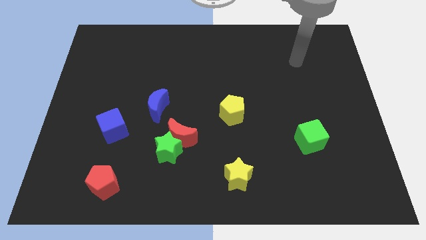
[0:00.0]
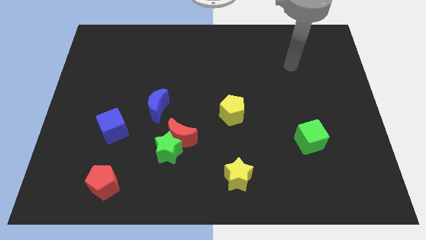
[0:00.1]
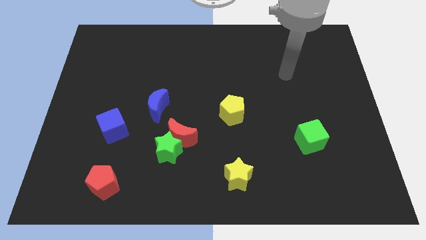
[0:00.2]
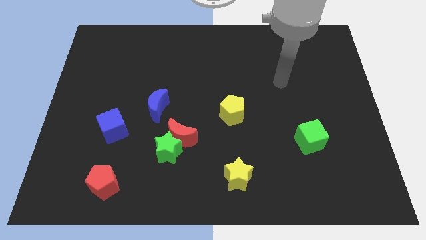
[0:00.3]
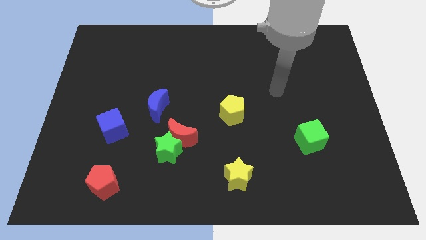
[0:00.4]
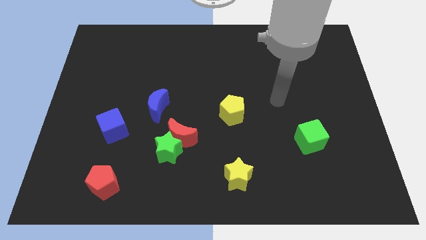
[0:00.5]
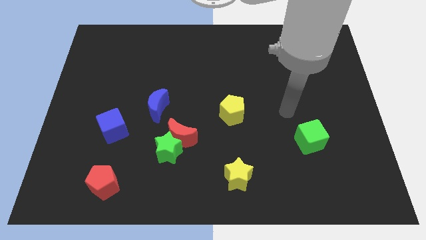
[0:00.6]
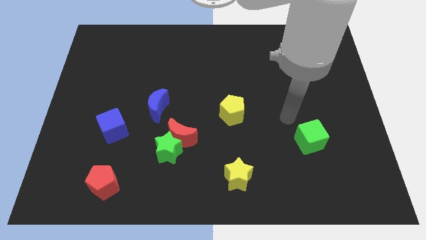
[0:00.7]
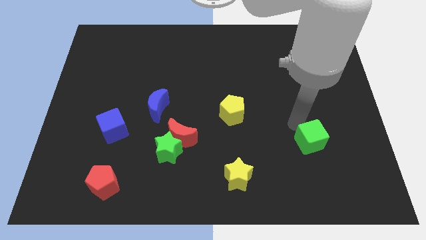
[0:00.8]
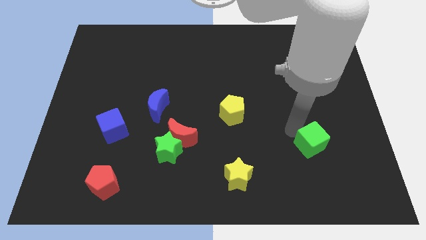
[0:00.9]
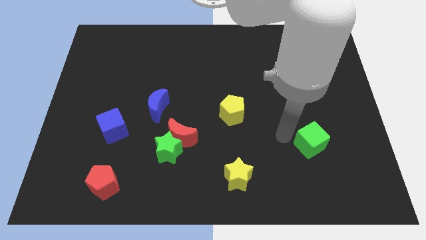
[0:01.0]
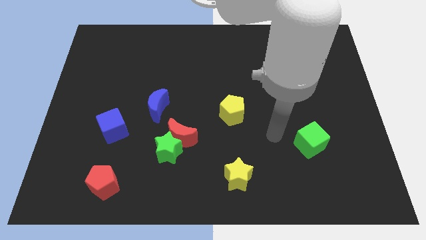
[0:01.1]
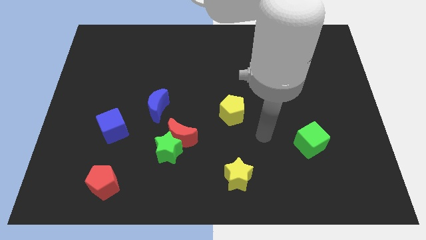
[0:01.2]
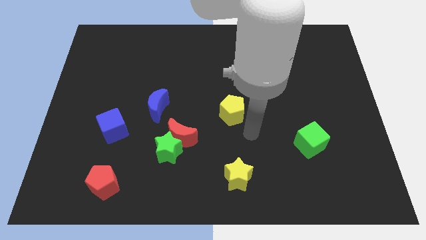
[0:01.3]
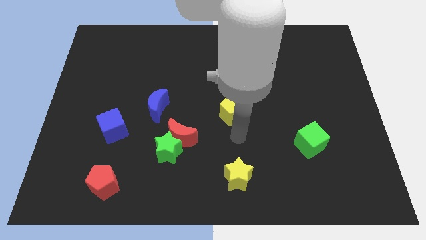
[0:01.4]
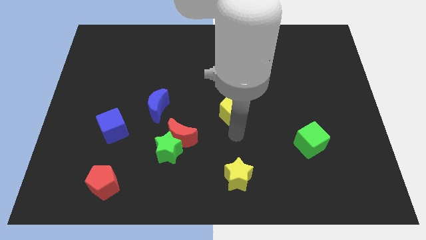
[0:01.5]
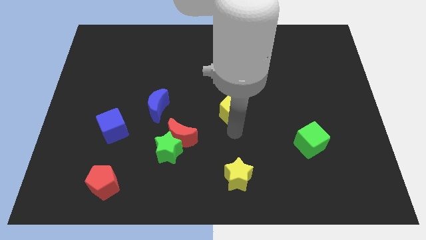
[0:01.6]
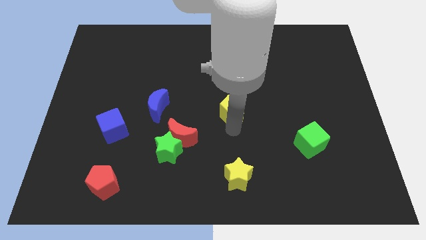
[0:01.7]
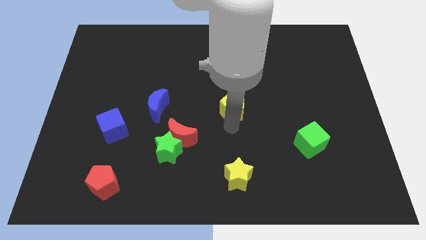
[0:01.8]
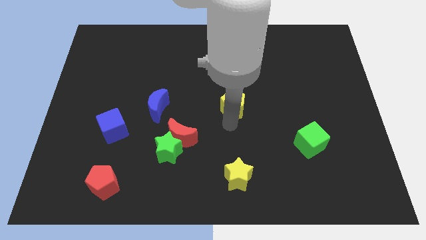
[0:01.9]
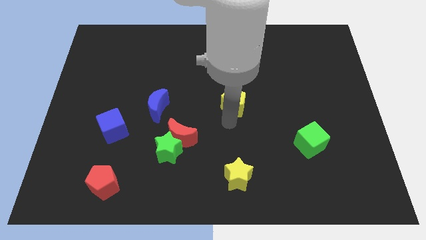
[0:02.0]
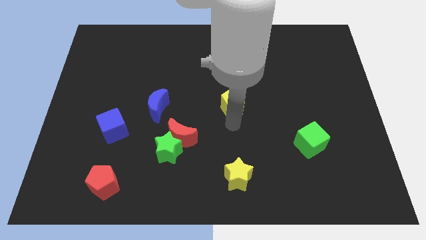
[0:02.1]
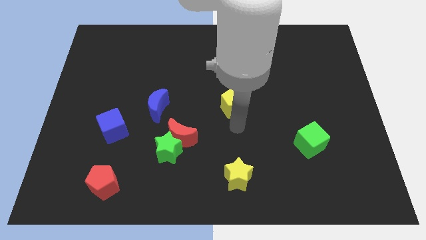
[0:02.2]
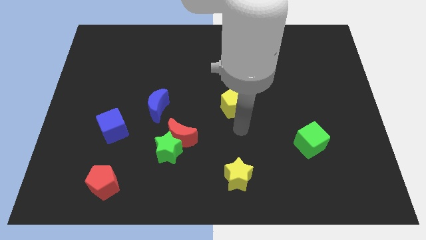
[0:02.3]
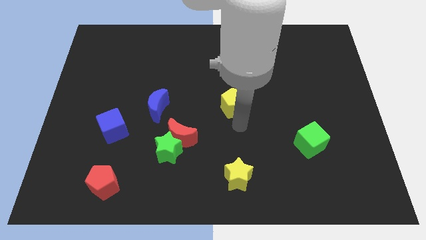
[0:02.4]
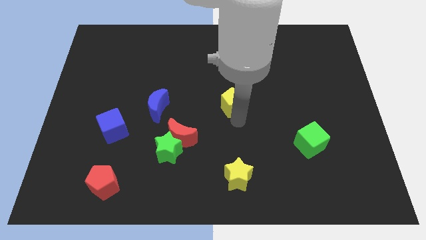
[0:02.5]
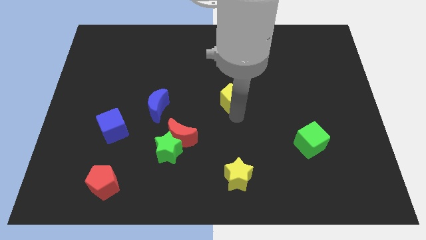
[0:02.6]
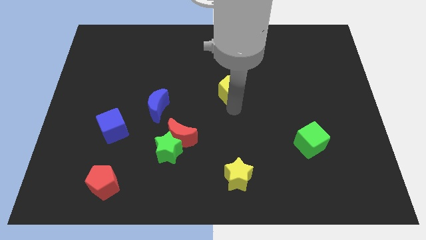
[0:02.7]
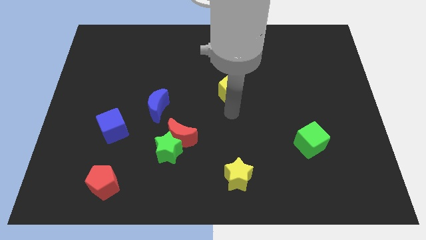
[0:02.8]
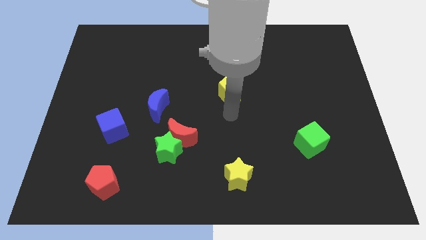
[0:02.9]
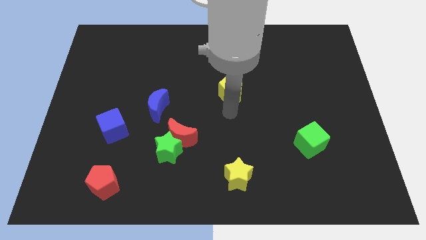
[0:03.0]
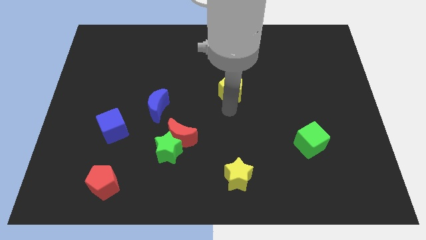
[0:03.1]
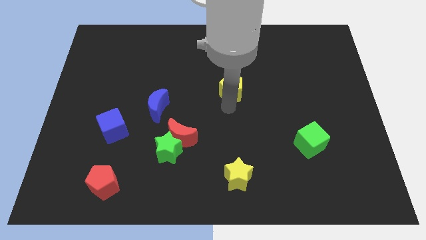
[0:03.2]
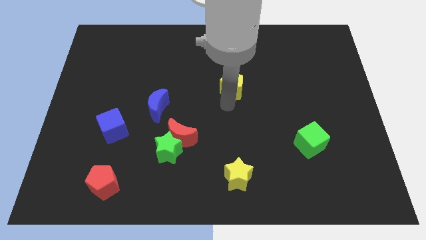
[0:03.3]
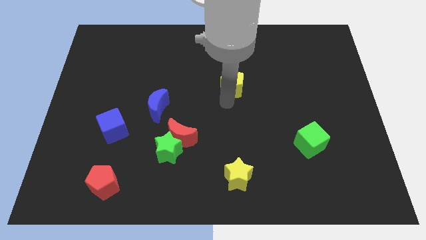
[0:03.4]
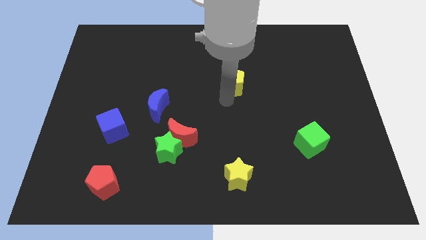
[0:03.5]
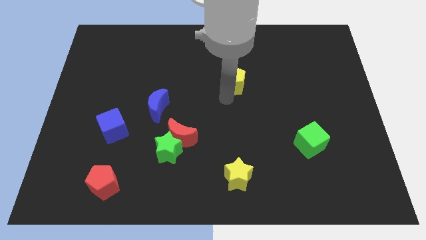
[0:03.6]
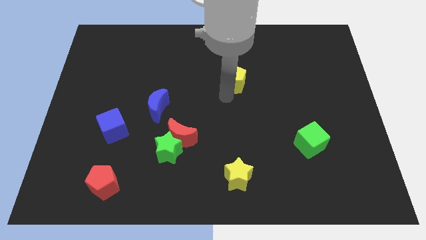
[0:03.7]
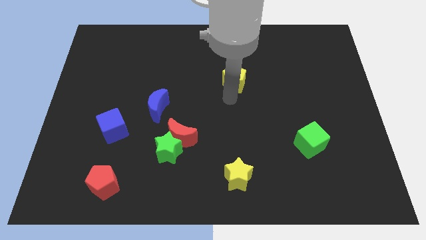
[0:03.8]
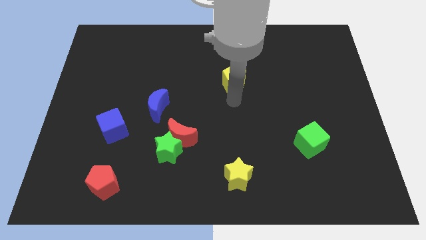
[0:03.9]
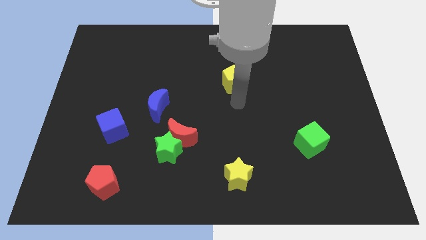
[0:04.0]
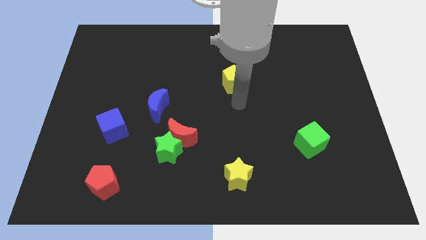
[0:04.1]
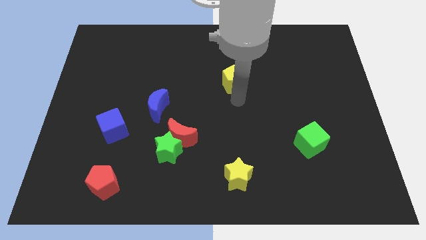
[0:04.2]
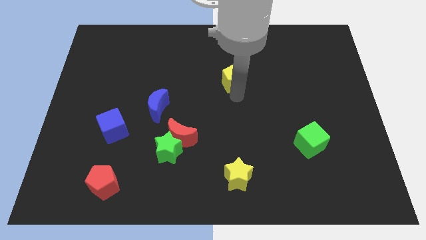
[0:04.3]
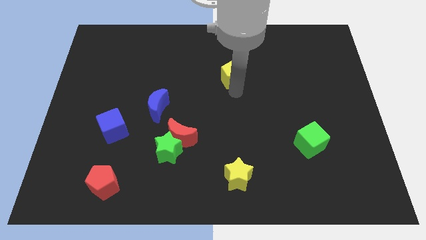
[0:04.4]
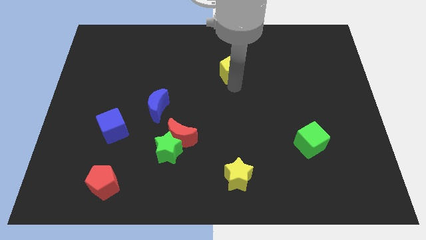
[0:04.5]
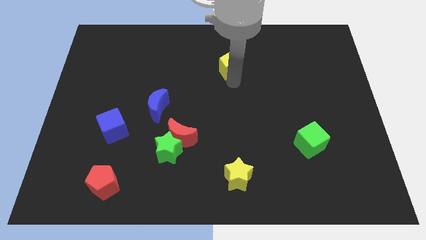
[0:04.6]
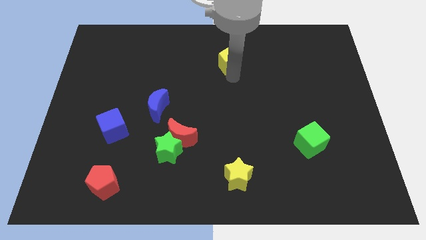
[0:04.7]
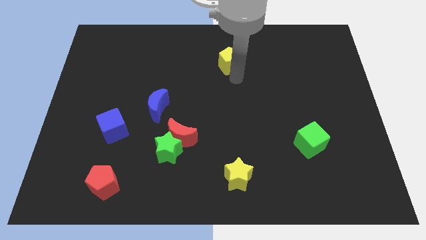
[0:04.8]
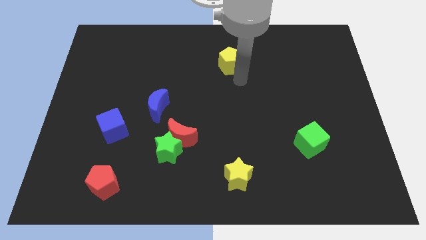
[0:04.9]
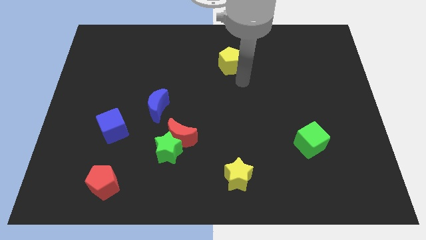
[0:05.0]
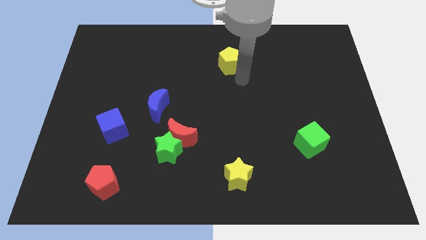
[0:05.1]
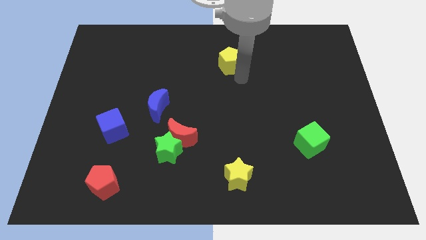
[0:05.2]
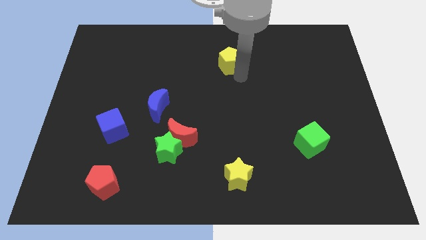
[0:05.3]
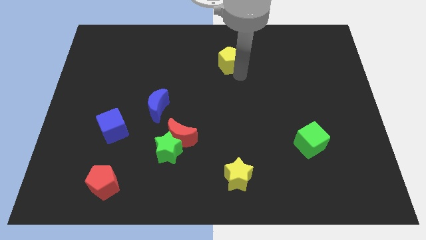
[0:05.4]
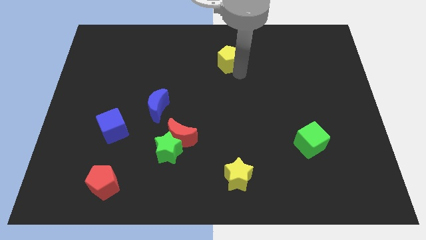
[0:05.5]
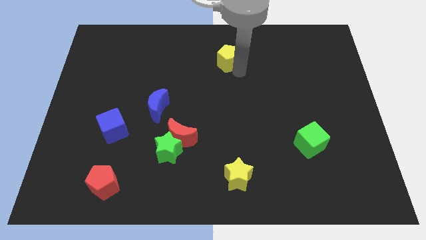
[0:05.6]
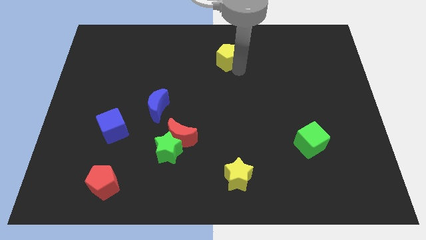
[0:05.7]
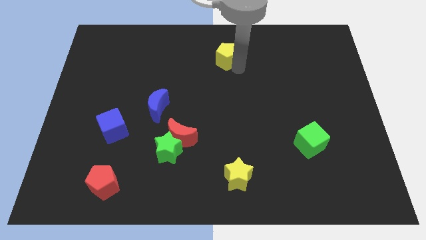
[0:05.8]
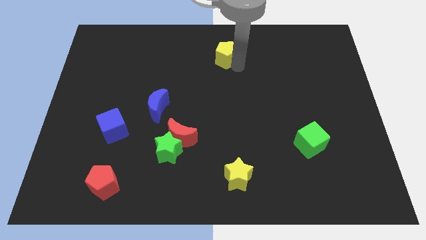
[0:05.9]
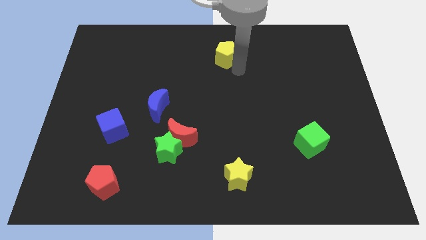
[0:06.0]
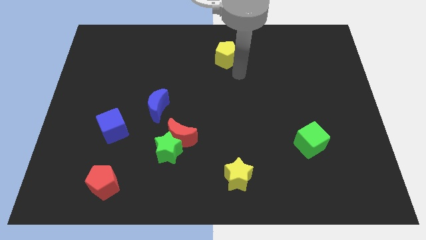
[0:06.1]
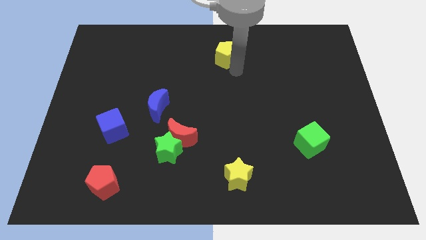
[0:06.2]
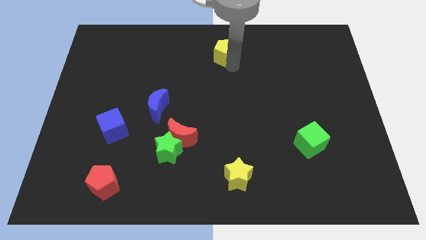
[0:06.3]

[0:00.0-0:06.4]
put the yellow pentagon to the top
